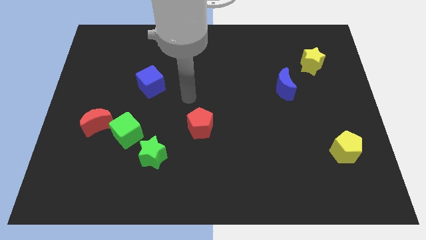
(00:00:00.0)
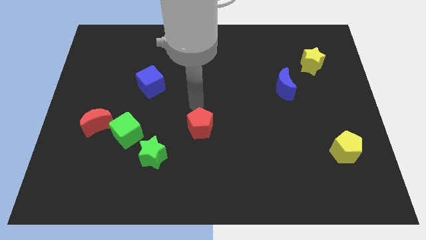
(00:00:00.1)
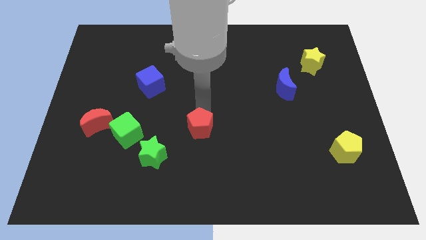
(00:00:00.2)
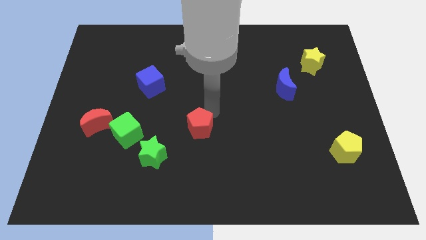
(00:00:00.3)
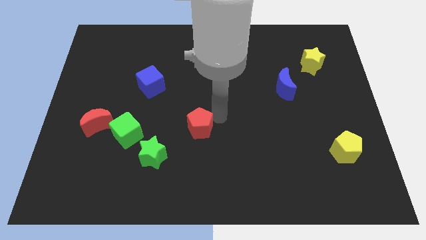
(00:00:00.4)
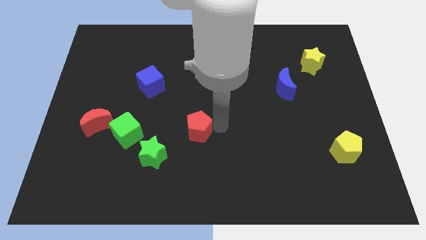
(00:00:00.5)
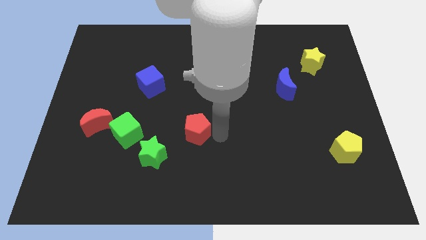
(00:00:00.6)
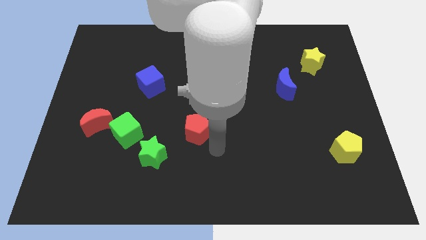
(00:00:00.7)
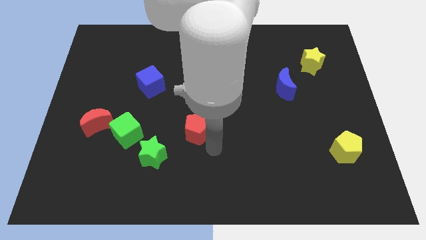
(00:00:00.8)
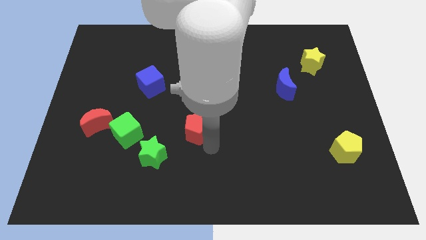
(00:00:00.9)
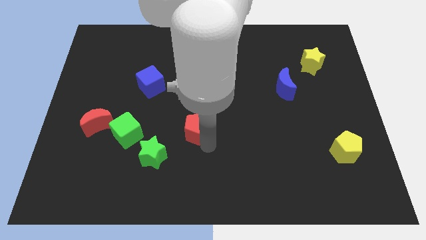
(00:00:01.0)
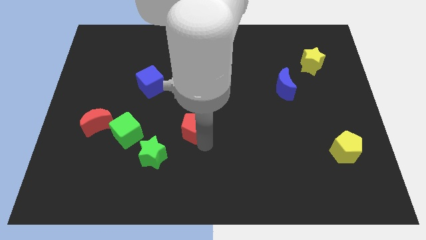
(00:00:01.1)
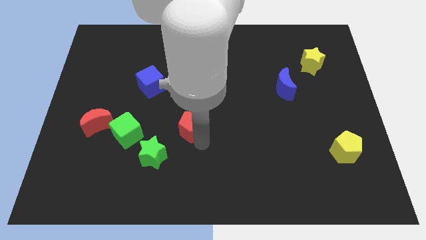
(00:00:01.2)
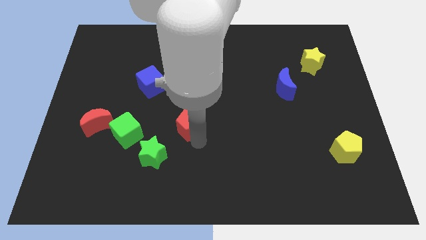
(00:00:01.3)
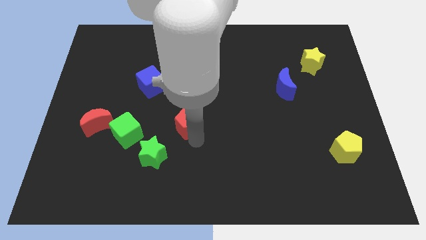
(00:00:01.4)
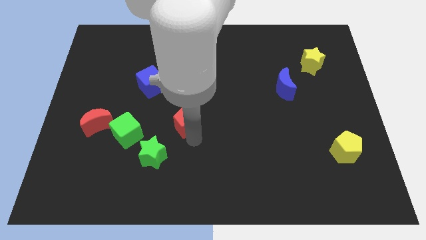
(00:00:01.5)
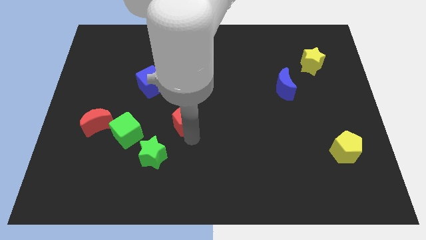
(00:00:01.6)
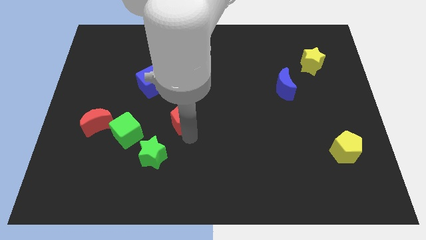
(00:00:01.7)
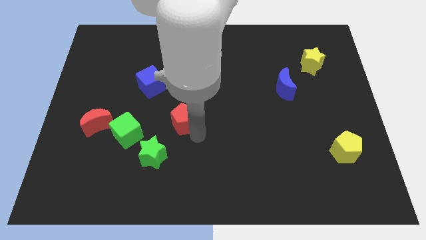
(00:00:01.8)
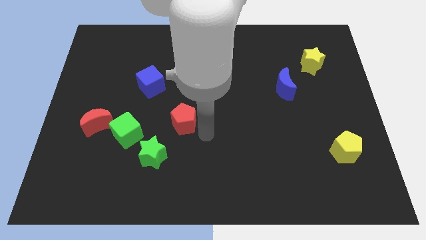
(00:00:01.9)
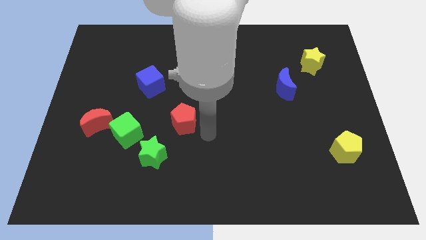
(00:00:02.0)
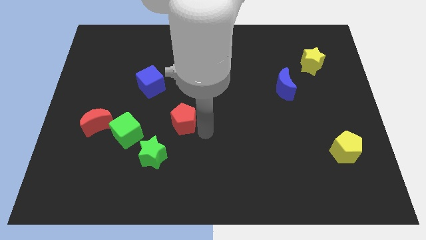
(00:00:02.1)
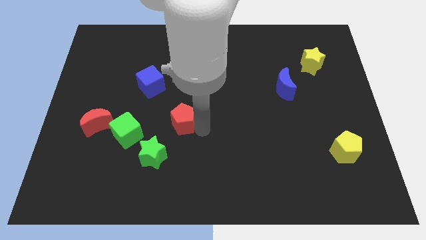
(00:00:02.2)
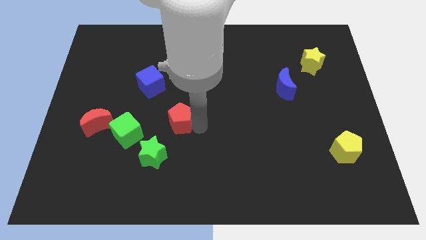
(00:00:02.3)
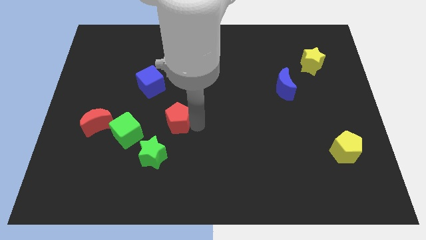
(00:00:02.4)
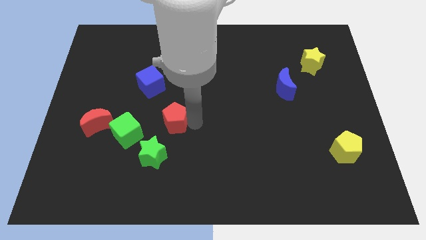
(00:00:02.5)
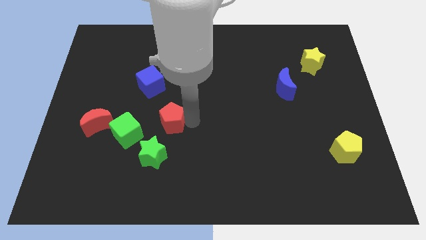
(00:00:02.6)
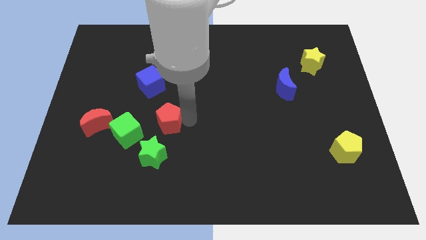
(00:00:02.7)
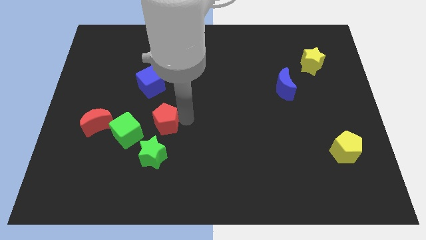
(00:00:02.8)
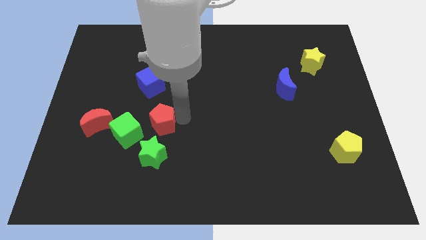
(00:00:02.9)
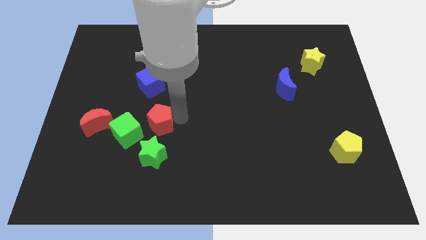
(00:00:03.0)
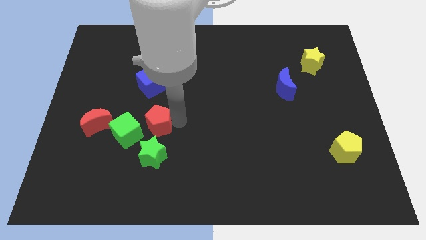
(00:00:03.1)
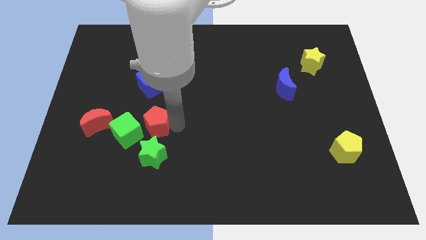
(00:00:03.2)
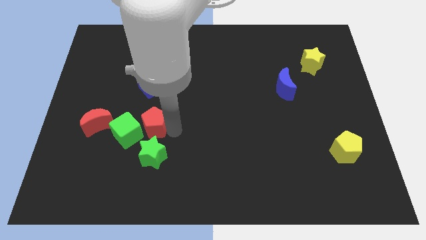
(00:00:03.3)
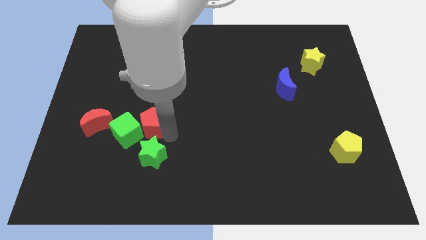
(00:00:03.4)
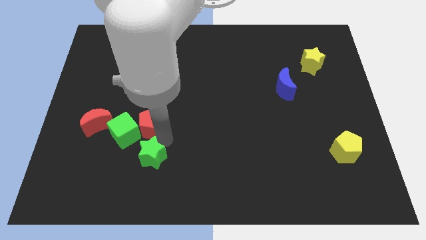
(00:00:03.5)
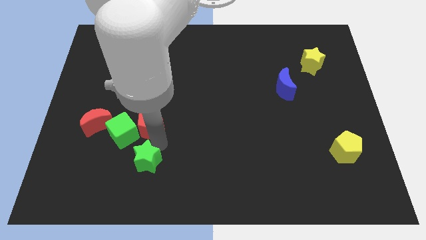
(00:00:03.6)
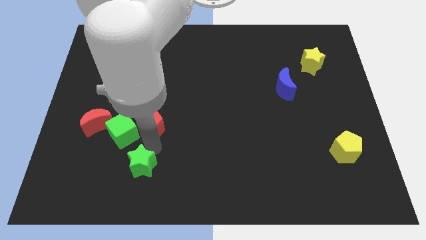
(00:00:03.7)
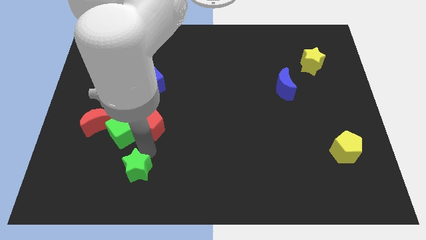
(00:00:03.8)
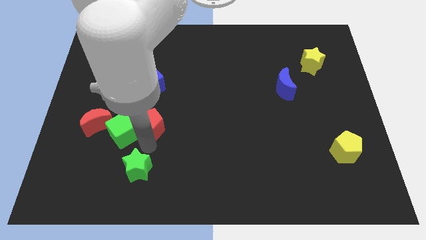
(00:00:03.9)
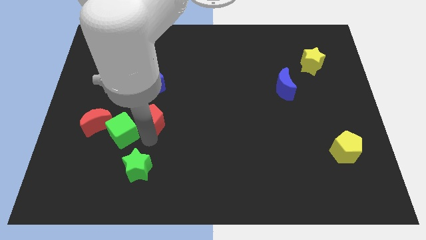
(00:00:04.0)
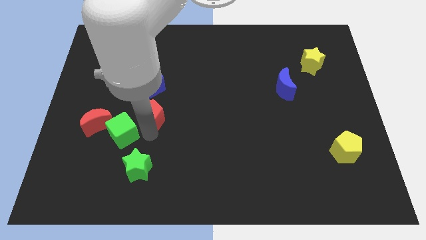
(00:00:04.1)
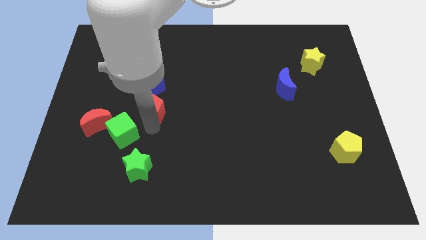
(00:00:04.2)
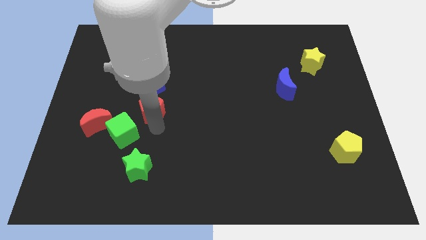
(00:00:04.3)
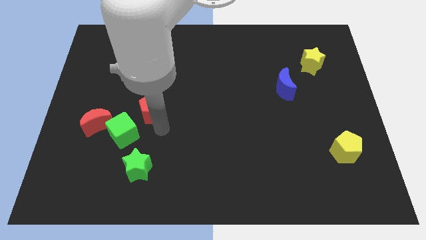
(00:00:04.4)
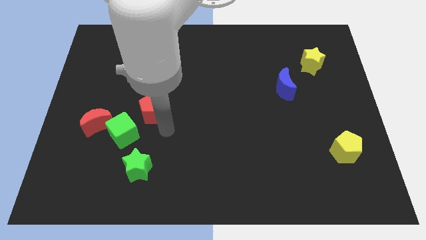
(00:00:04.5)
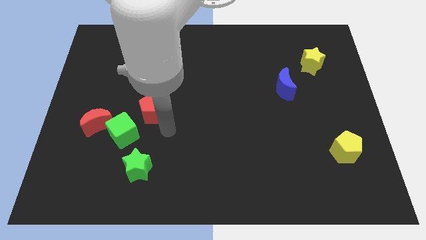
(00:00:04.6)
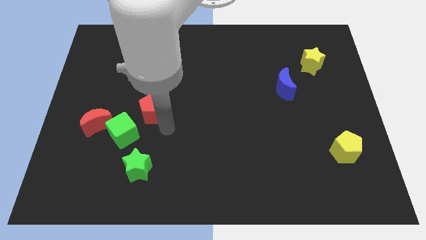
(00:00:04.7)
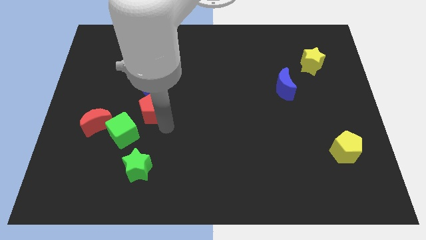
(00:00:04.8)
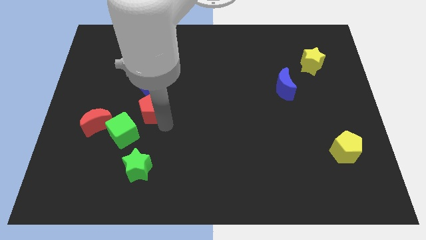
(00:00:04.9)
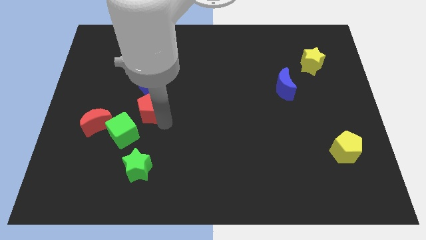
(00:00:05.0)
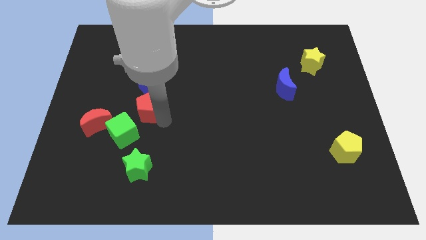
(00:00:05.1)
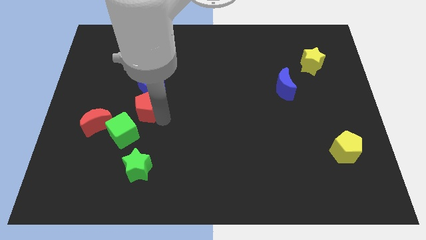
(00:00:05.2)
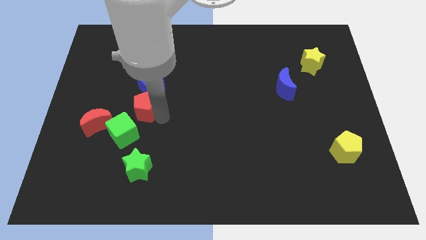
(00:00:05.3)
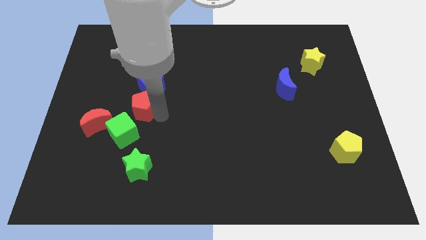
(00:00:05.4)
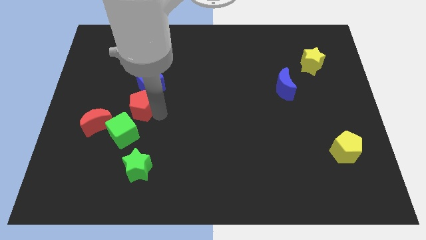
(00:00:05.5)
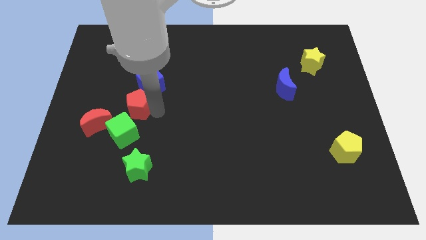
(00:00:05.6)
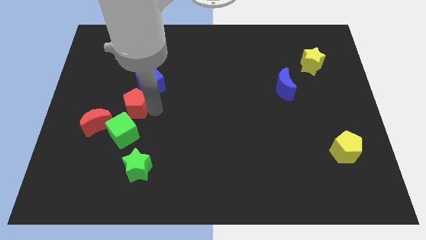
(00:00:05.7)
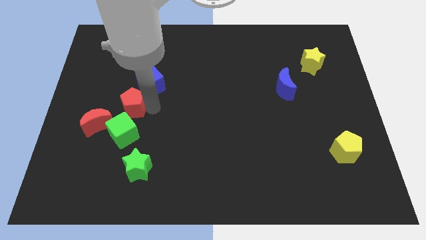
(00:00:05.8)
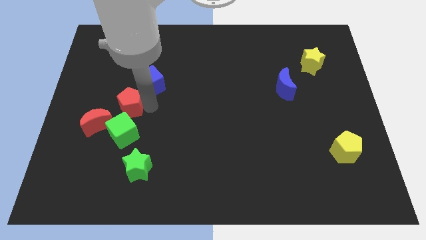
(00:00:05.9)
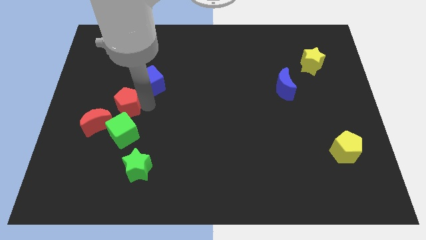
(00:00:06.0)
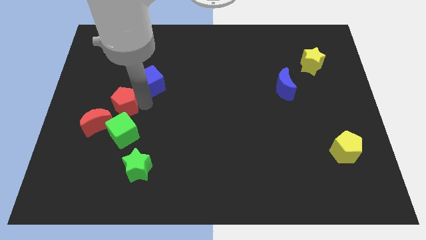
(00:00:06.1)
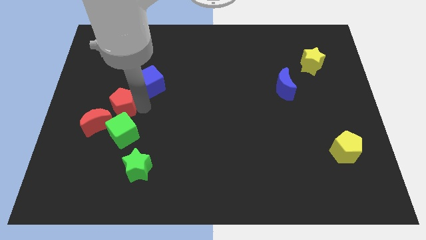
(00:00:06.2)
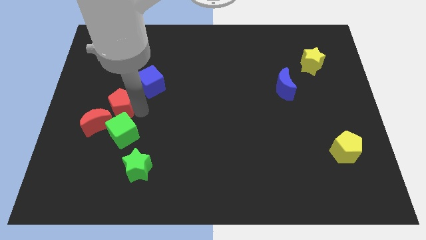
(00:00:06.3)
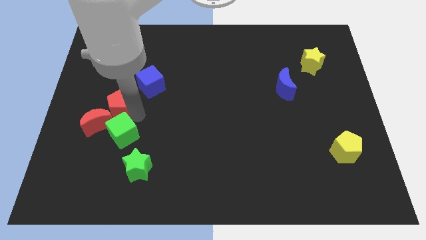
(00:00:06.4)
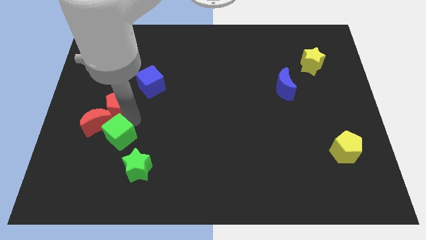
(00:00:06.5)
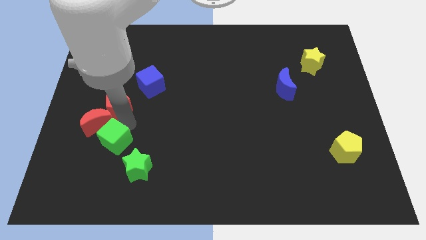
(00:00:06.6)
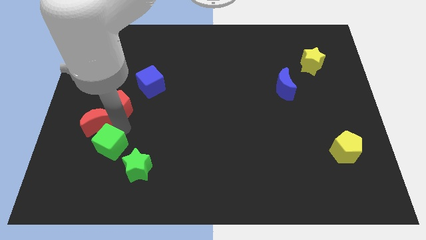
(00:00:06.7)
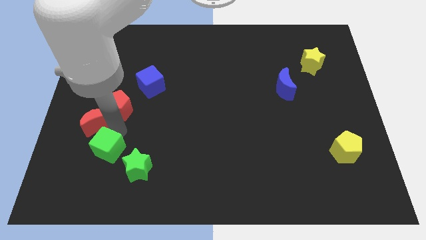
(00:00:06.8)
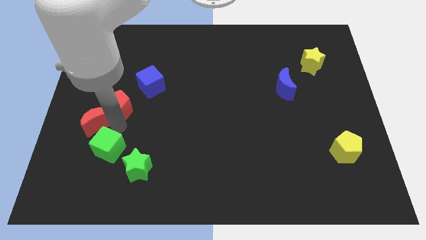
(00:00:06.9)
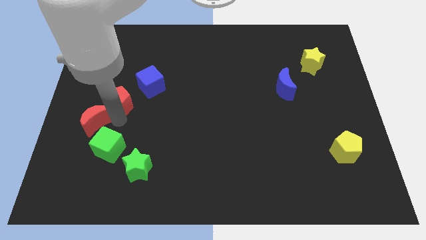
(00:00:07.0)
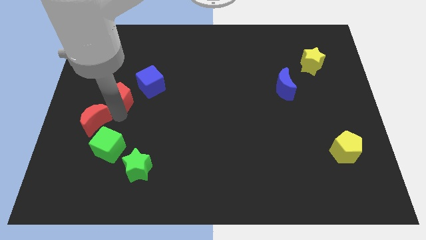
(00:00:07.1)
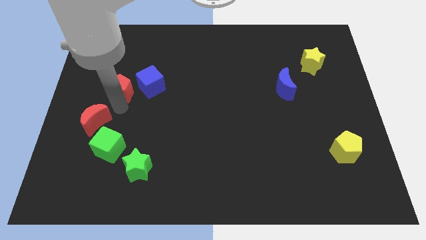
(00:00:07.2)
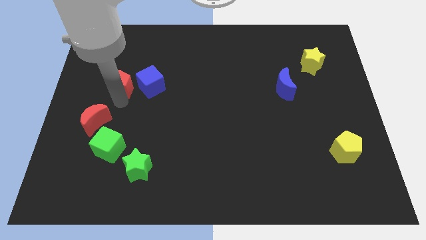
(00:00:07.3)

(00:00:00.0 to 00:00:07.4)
push the red pentagon upwards and to the left

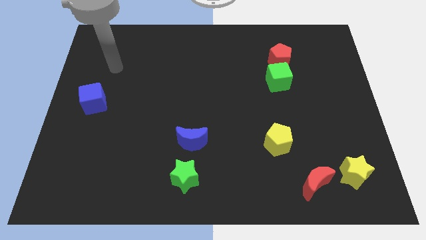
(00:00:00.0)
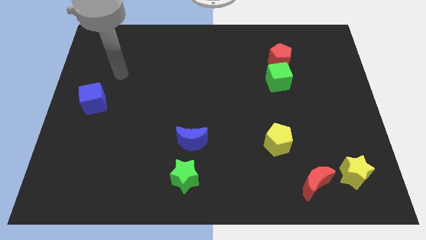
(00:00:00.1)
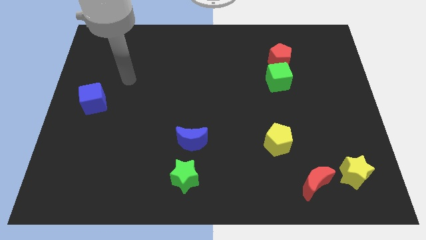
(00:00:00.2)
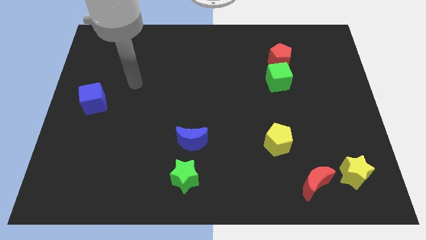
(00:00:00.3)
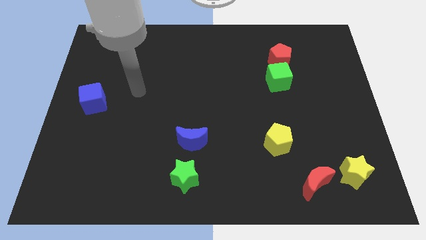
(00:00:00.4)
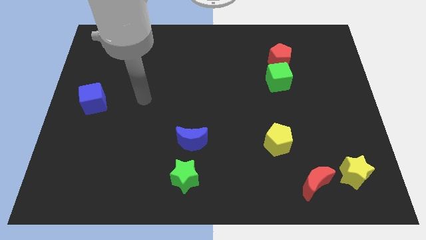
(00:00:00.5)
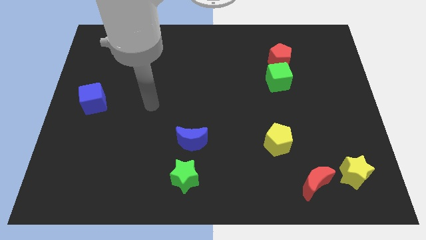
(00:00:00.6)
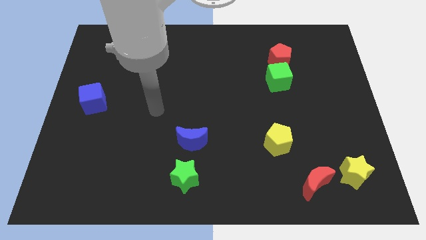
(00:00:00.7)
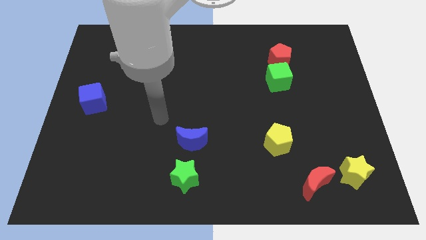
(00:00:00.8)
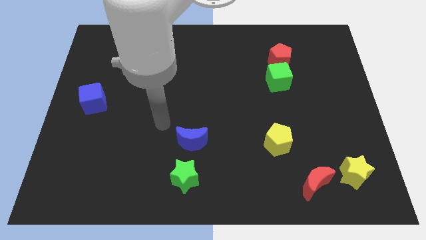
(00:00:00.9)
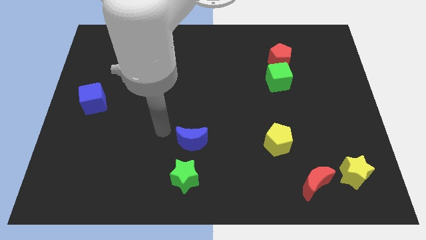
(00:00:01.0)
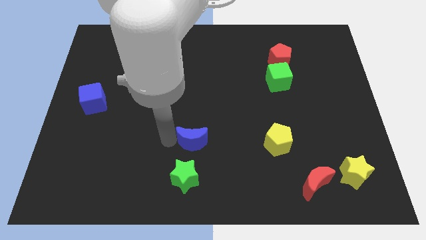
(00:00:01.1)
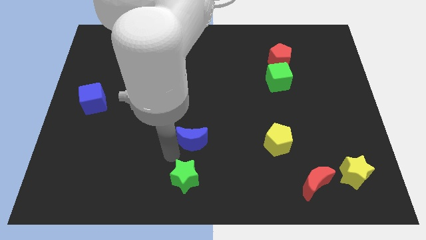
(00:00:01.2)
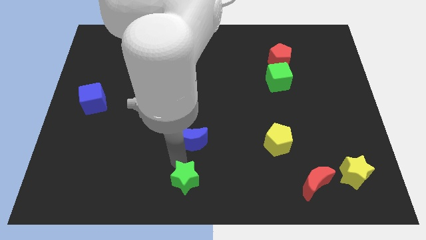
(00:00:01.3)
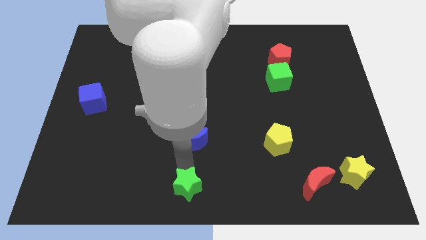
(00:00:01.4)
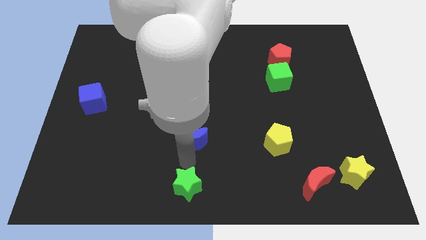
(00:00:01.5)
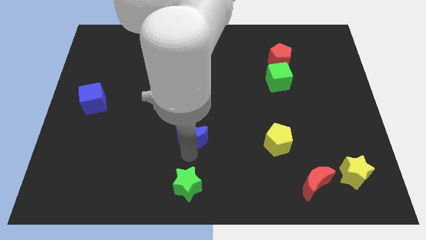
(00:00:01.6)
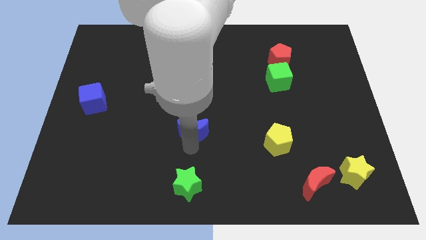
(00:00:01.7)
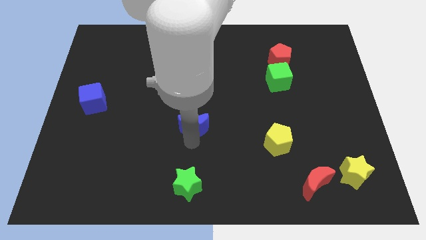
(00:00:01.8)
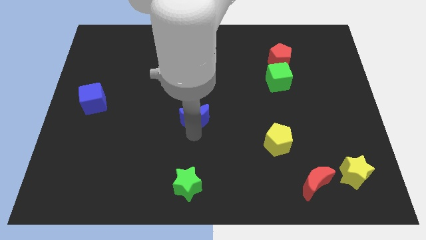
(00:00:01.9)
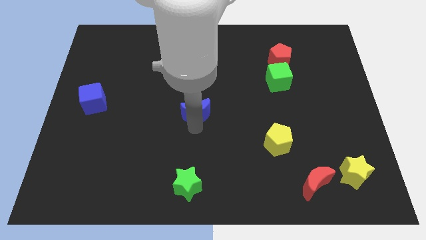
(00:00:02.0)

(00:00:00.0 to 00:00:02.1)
slightly move the blue moon up
